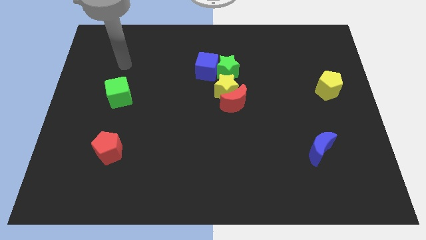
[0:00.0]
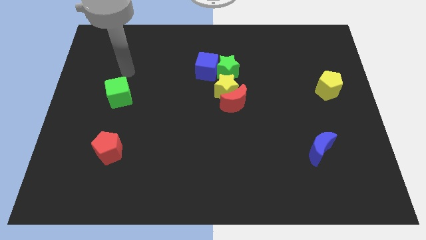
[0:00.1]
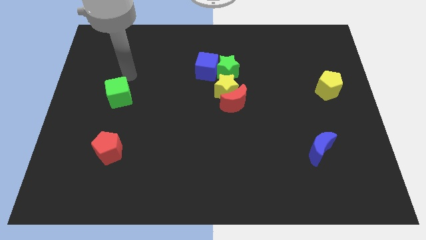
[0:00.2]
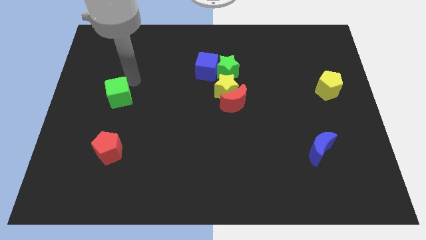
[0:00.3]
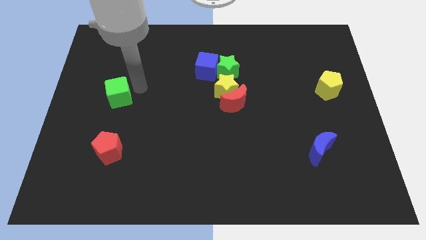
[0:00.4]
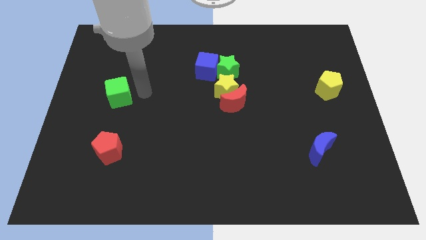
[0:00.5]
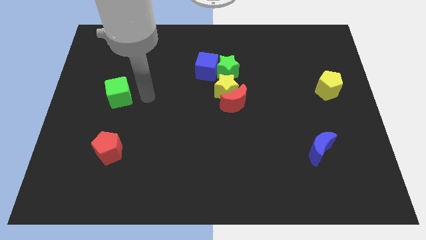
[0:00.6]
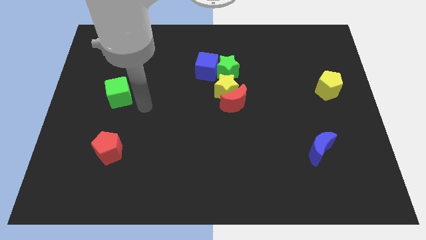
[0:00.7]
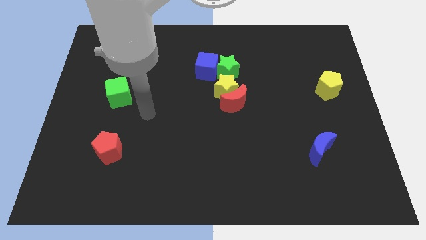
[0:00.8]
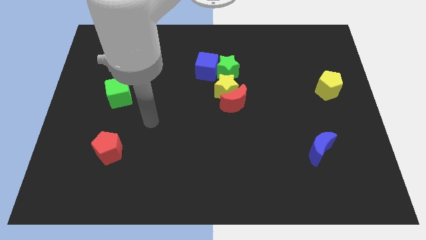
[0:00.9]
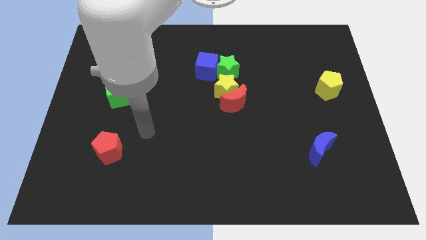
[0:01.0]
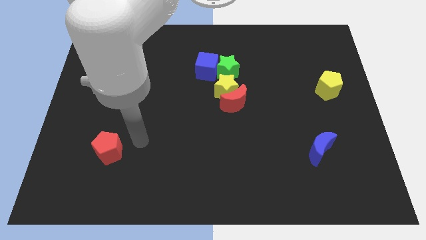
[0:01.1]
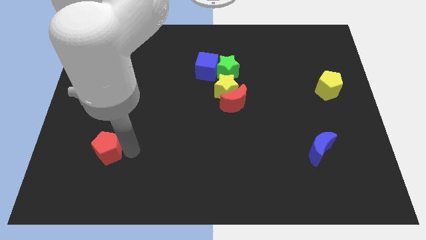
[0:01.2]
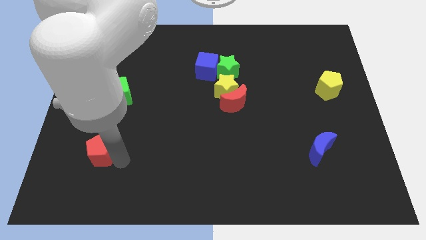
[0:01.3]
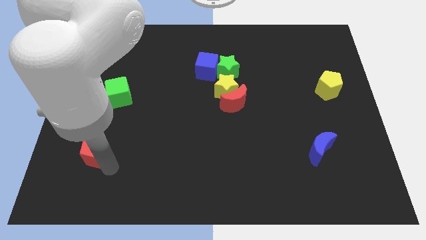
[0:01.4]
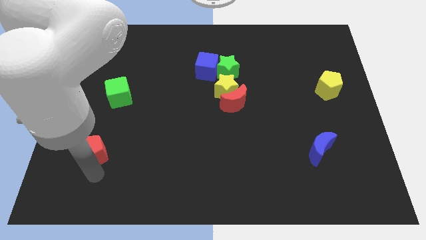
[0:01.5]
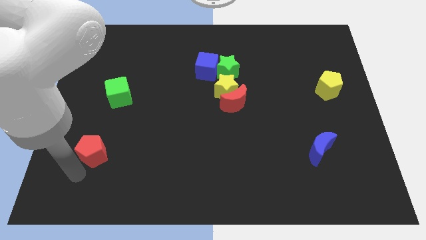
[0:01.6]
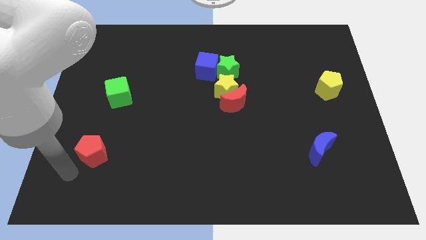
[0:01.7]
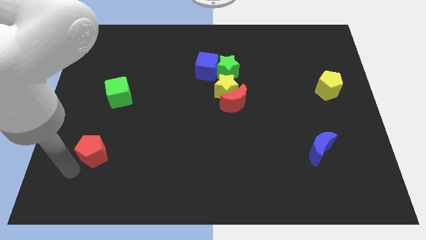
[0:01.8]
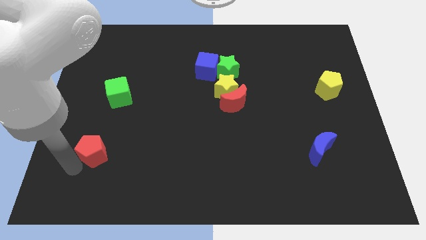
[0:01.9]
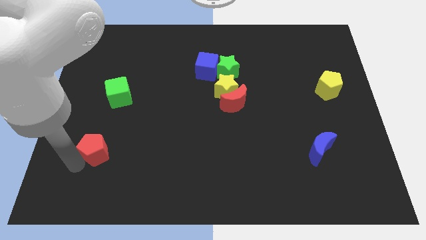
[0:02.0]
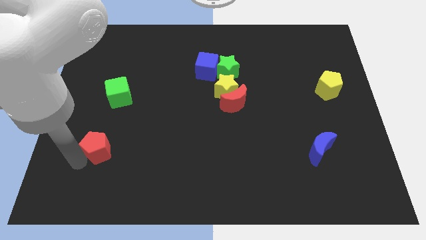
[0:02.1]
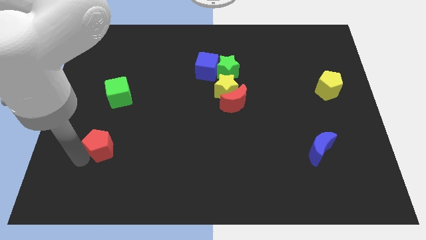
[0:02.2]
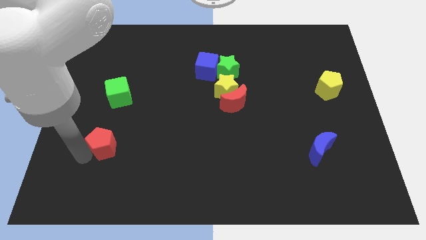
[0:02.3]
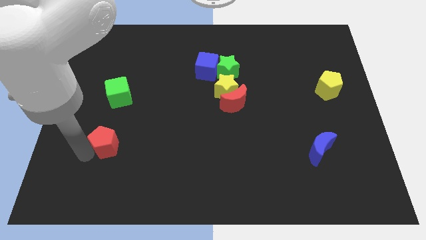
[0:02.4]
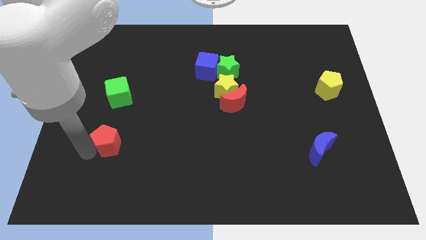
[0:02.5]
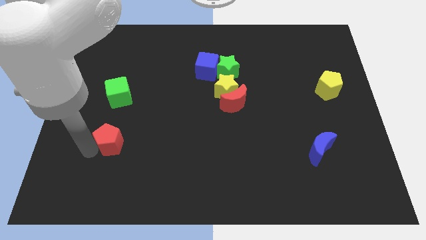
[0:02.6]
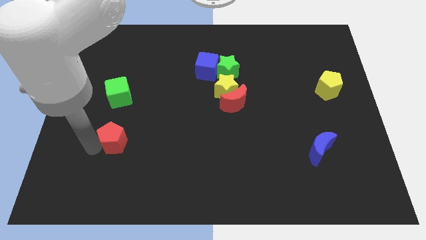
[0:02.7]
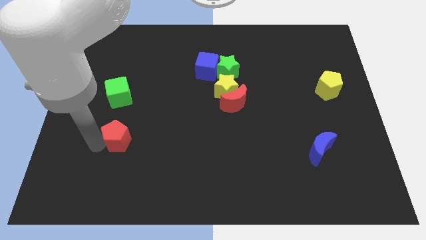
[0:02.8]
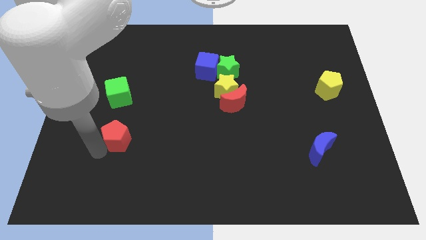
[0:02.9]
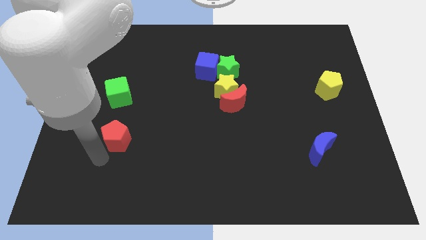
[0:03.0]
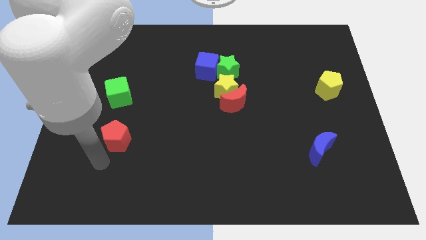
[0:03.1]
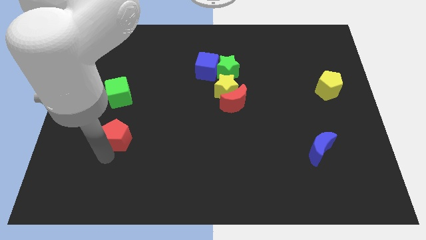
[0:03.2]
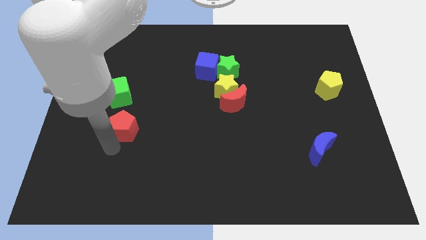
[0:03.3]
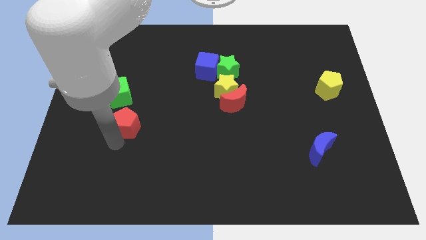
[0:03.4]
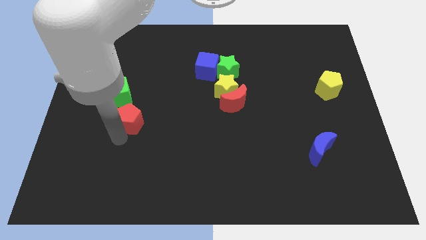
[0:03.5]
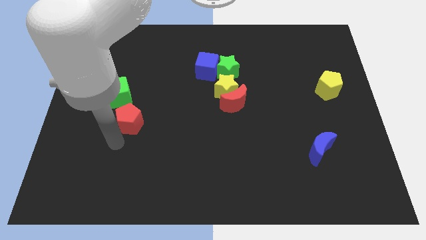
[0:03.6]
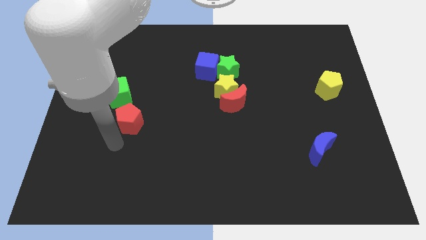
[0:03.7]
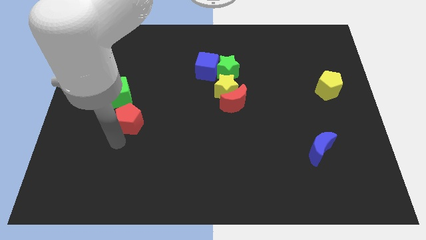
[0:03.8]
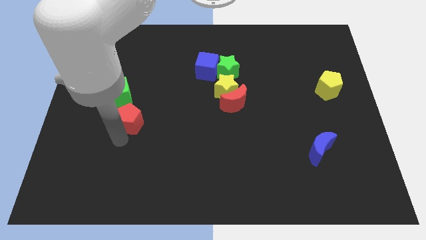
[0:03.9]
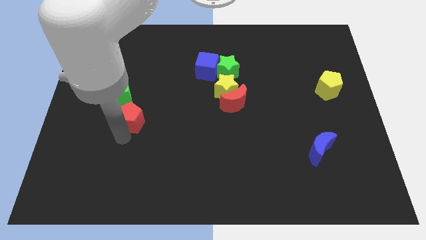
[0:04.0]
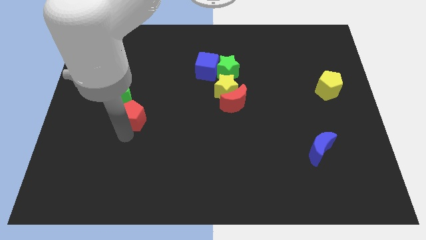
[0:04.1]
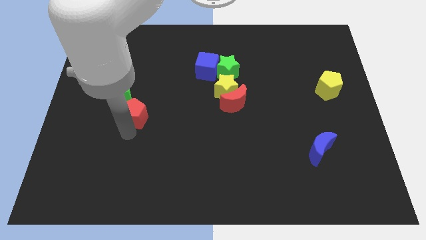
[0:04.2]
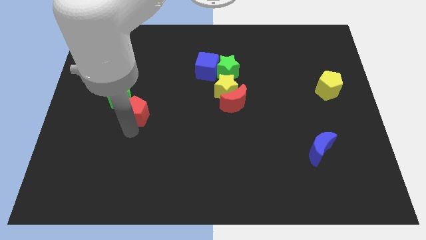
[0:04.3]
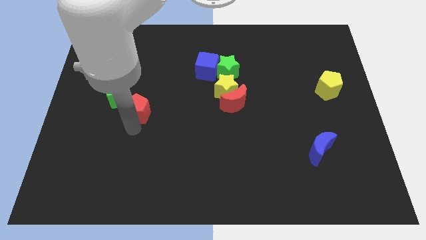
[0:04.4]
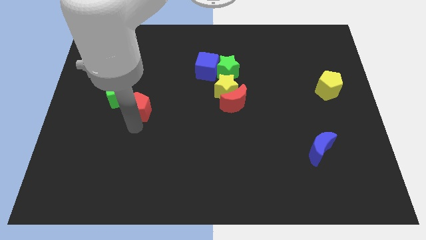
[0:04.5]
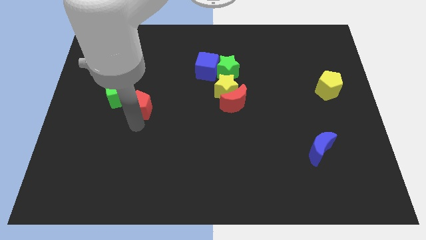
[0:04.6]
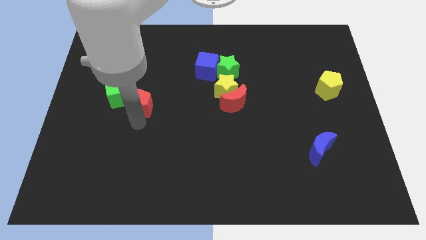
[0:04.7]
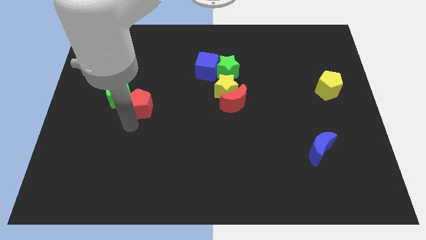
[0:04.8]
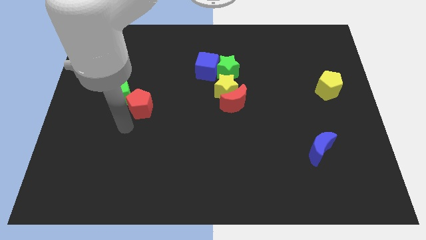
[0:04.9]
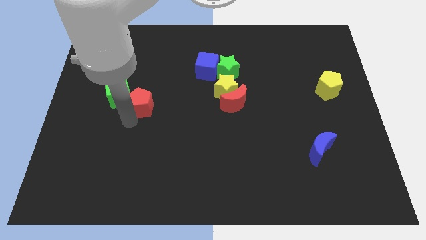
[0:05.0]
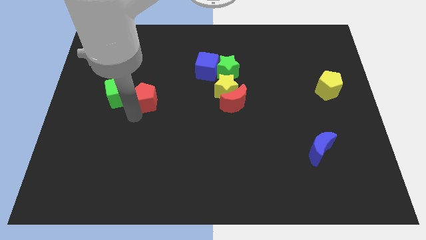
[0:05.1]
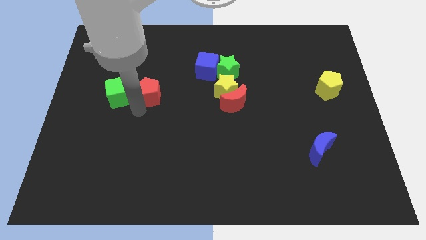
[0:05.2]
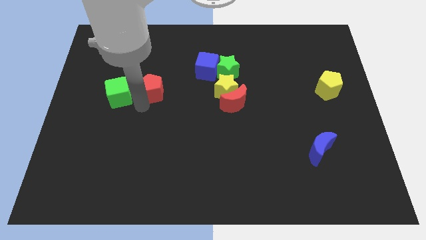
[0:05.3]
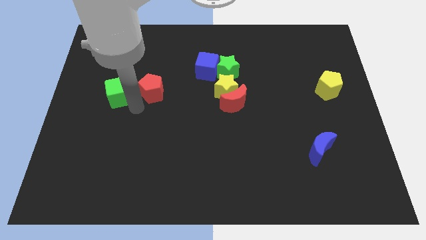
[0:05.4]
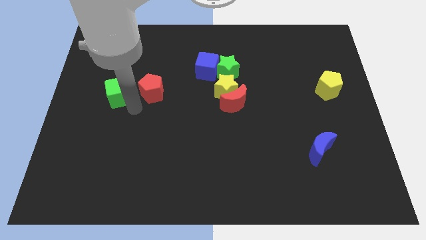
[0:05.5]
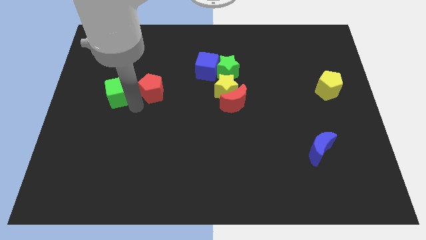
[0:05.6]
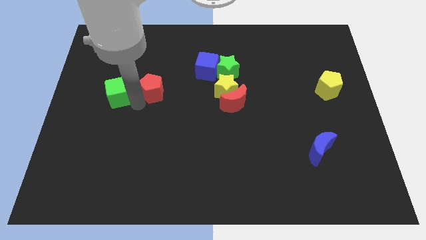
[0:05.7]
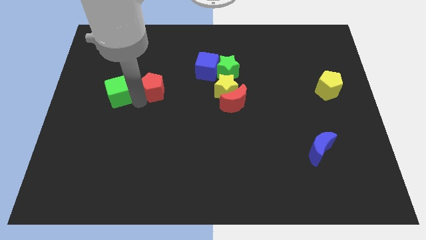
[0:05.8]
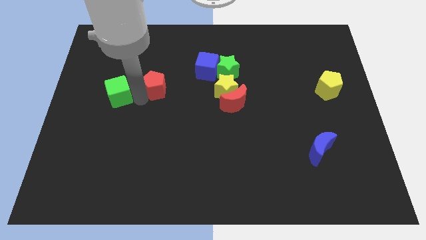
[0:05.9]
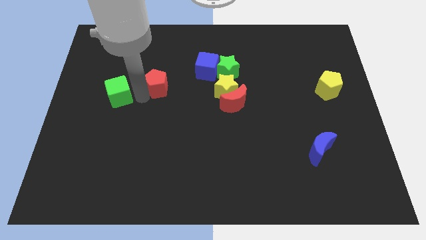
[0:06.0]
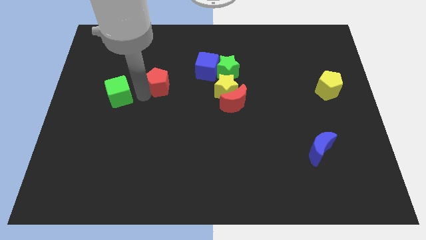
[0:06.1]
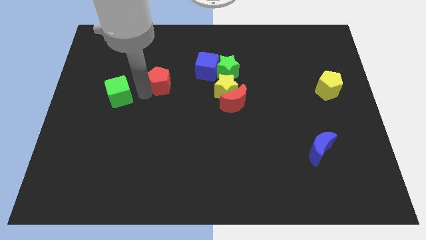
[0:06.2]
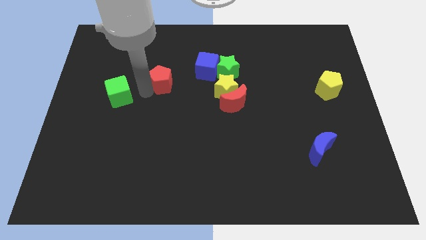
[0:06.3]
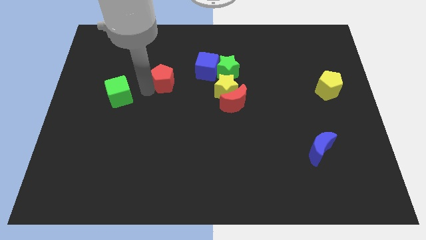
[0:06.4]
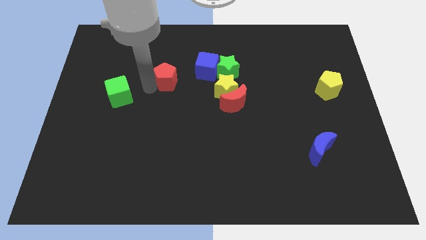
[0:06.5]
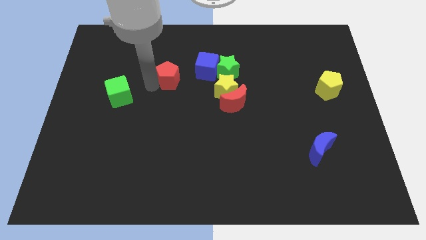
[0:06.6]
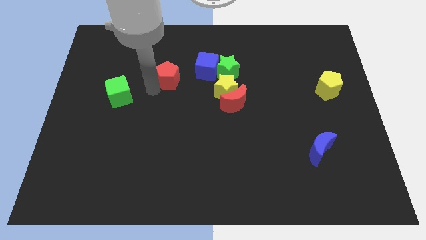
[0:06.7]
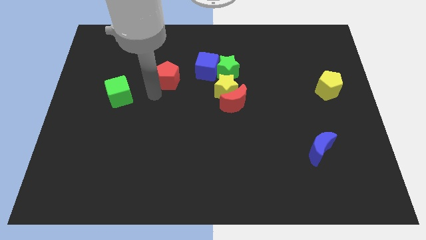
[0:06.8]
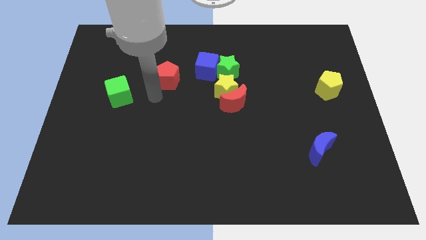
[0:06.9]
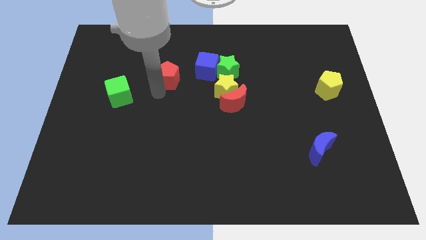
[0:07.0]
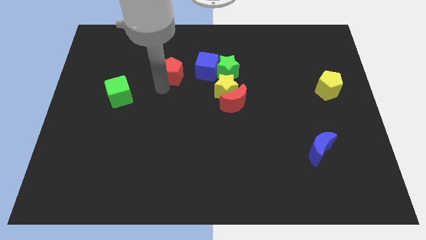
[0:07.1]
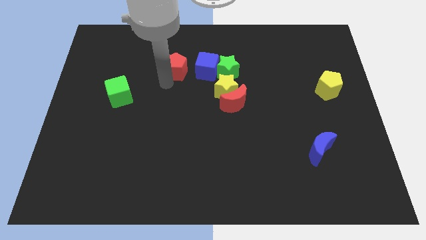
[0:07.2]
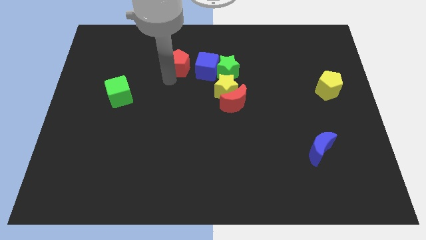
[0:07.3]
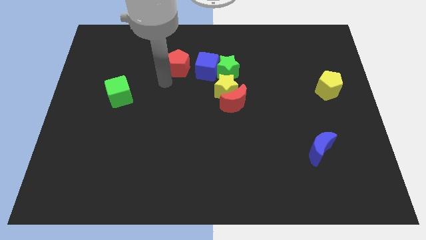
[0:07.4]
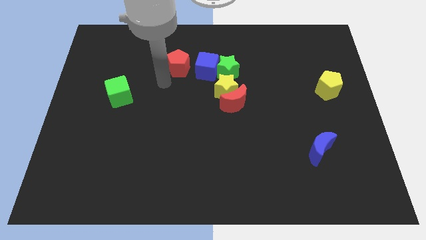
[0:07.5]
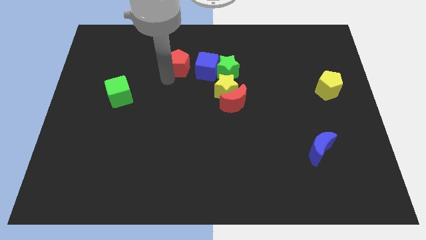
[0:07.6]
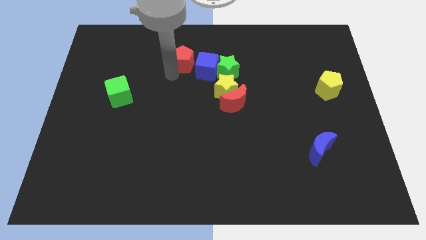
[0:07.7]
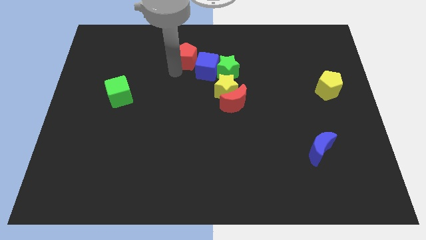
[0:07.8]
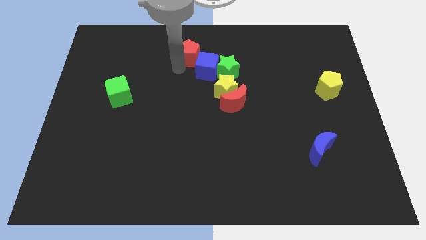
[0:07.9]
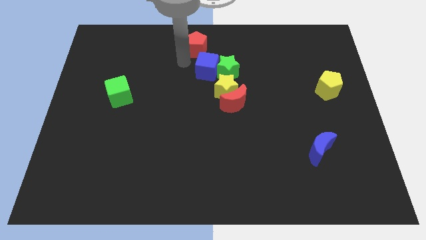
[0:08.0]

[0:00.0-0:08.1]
push the red pentagon to the top
